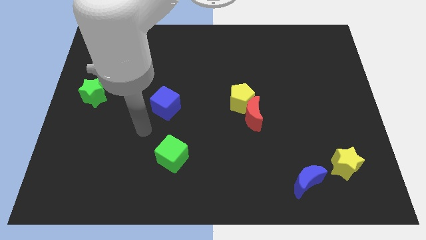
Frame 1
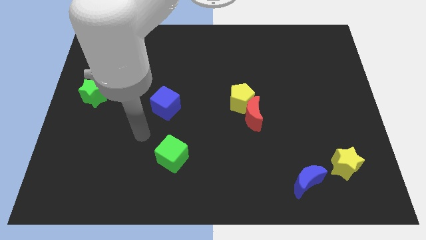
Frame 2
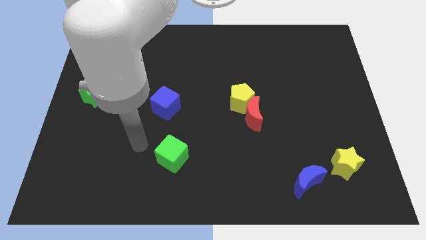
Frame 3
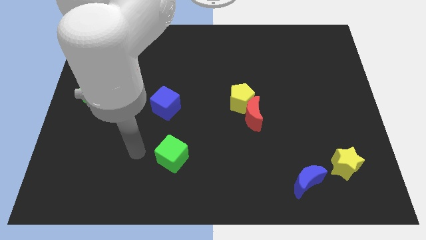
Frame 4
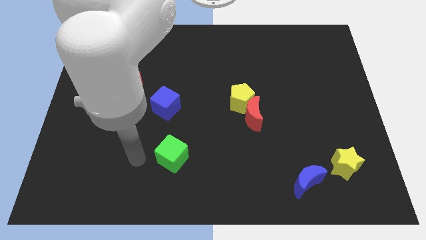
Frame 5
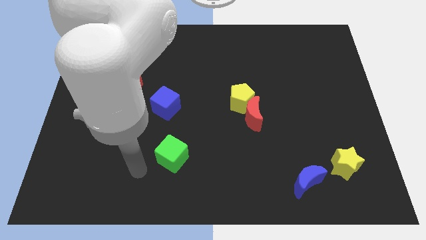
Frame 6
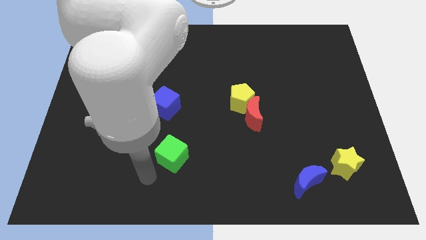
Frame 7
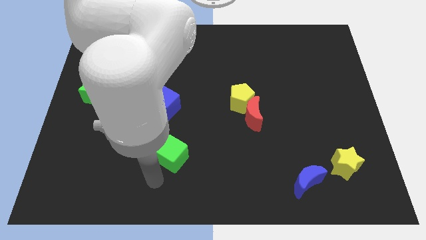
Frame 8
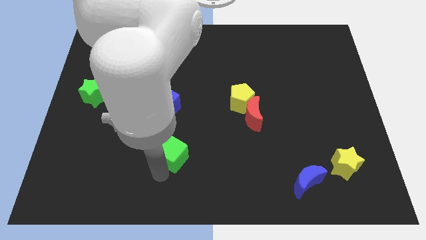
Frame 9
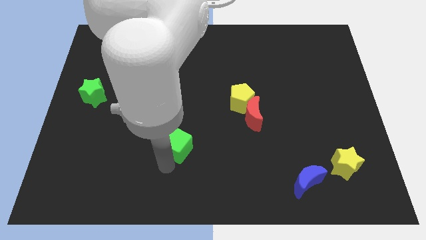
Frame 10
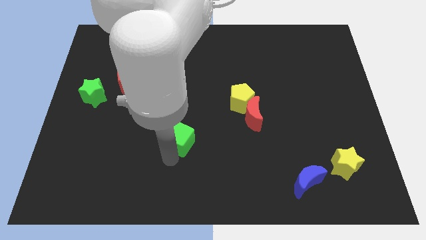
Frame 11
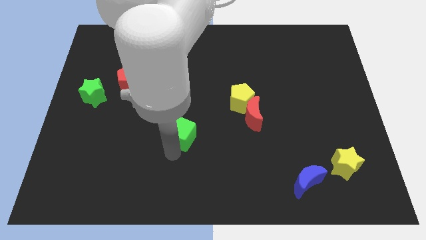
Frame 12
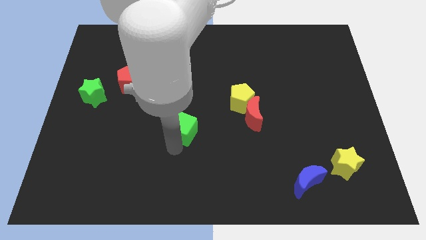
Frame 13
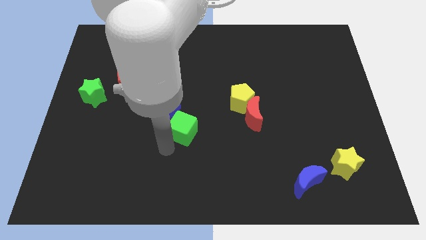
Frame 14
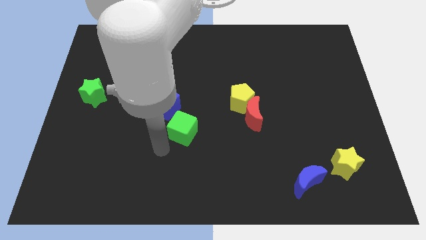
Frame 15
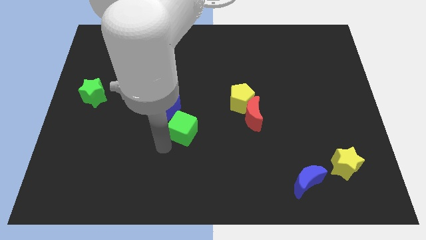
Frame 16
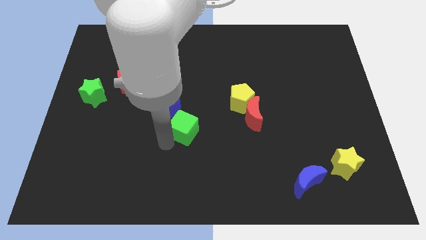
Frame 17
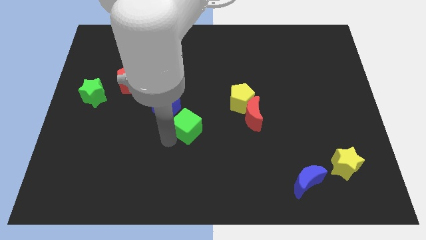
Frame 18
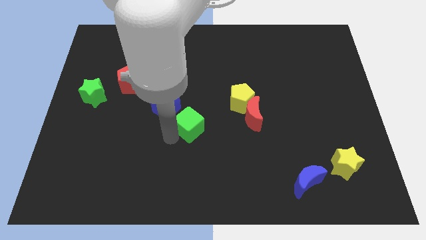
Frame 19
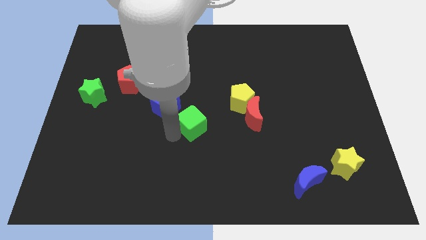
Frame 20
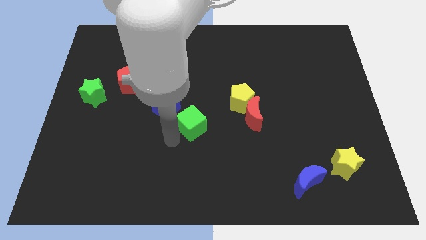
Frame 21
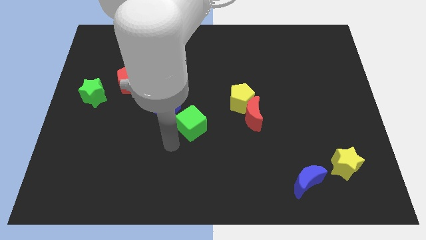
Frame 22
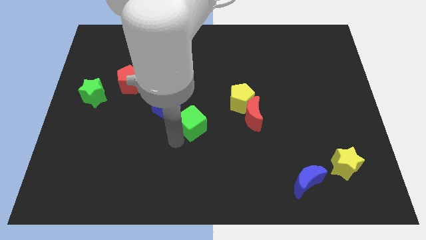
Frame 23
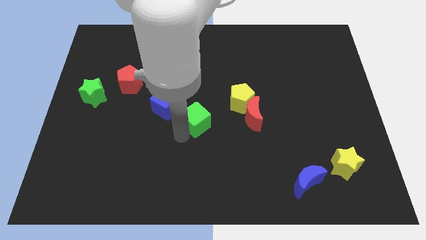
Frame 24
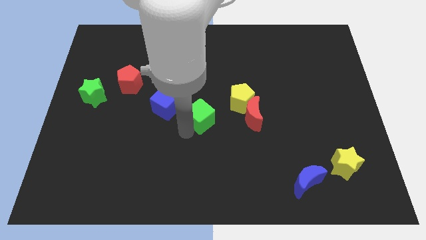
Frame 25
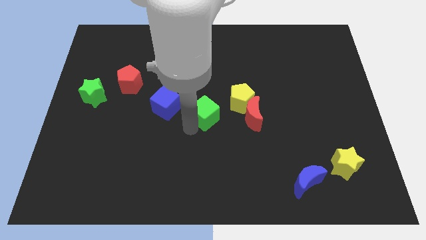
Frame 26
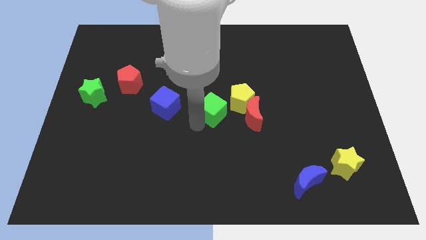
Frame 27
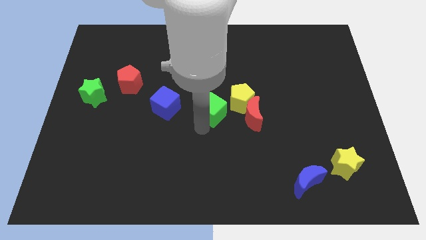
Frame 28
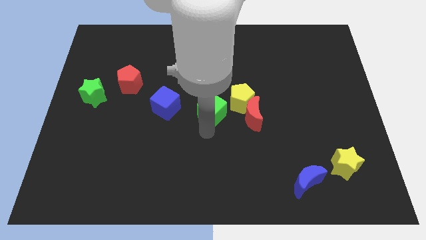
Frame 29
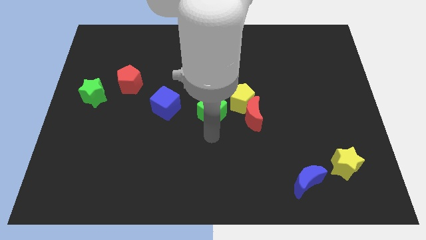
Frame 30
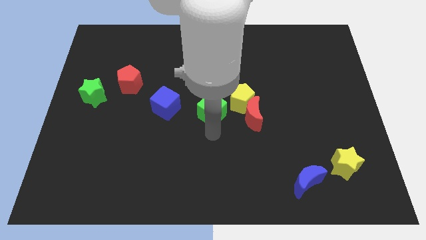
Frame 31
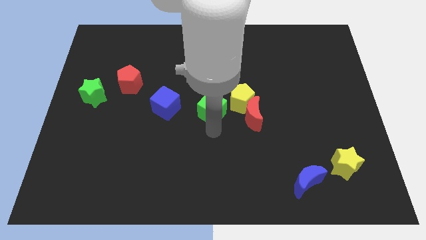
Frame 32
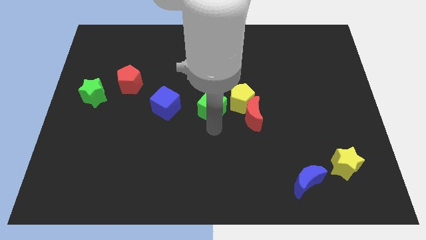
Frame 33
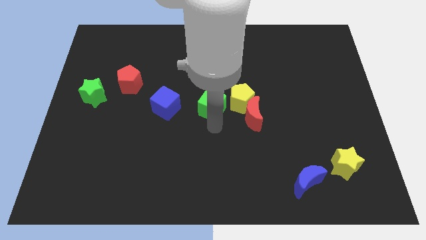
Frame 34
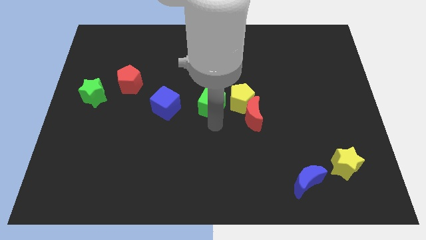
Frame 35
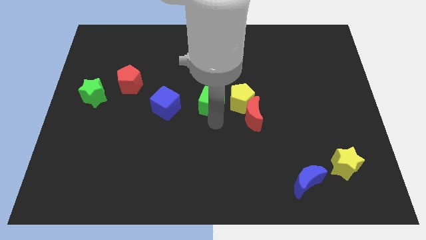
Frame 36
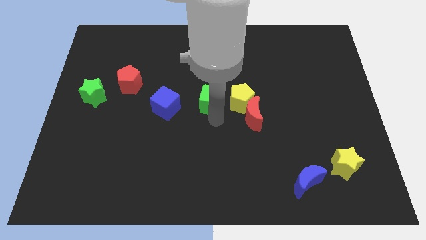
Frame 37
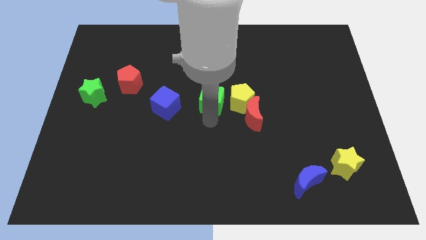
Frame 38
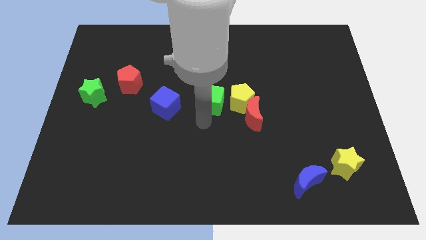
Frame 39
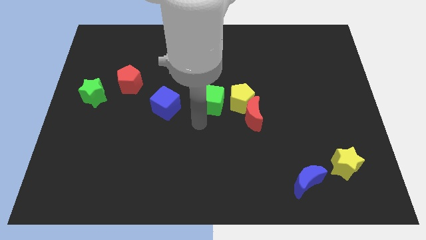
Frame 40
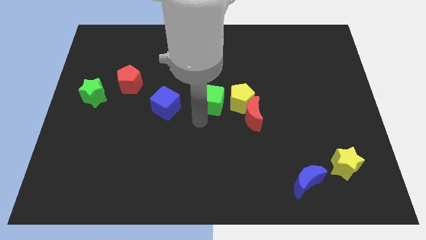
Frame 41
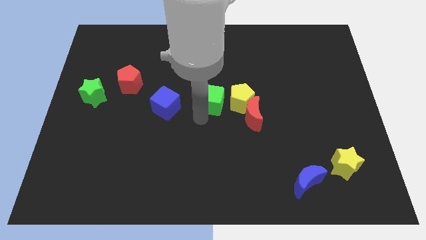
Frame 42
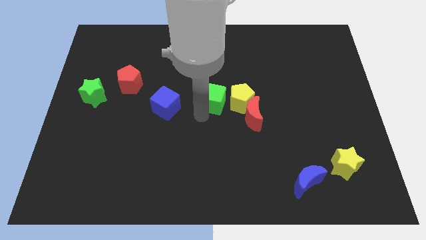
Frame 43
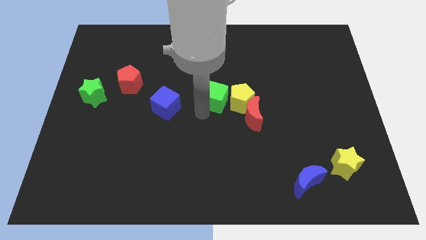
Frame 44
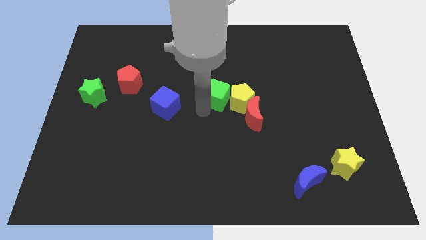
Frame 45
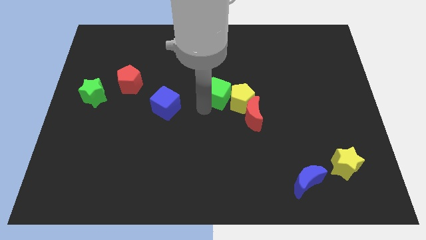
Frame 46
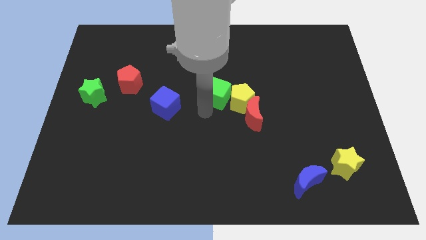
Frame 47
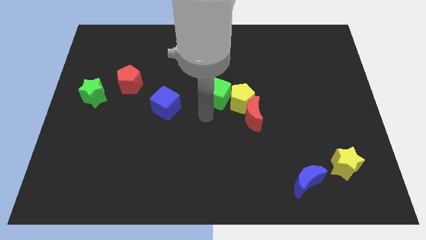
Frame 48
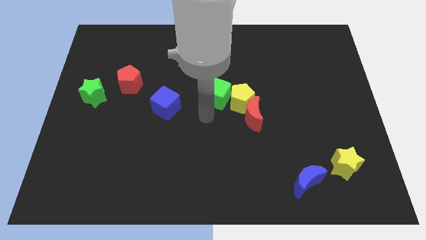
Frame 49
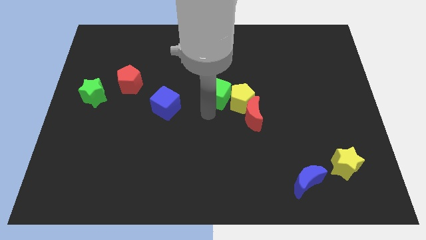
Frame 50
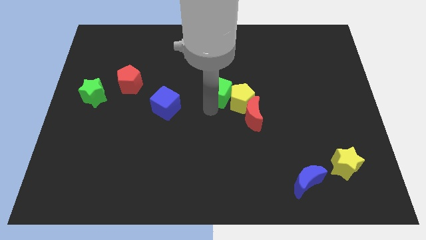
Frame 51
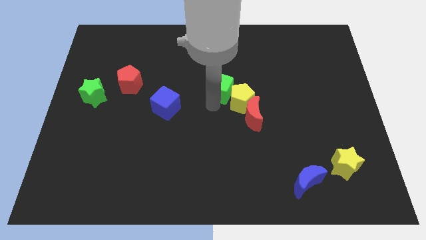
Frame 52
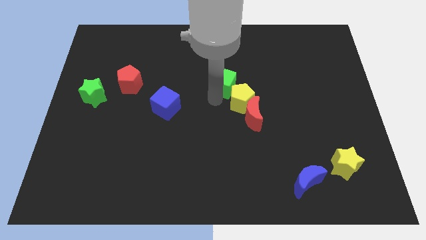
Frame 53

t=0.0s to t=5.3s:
move the green cube up and right

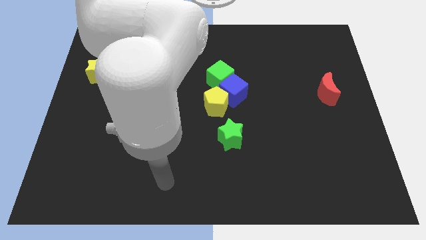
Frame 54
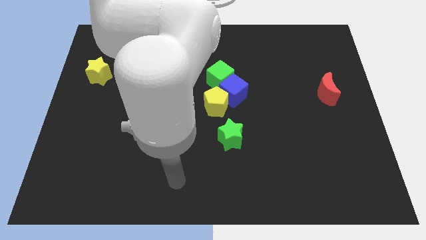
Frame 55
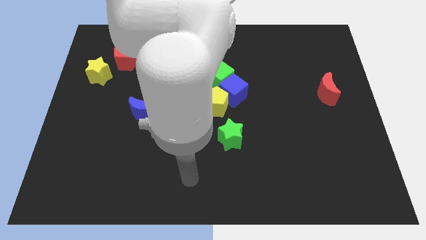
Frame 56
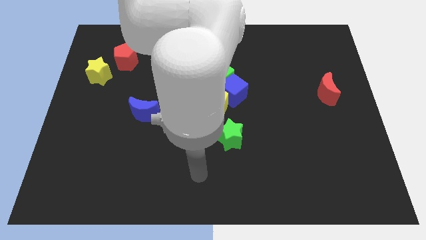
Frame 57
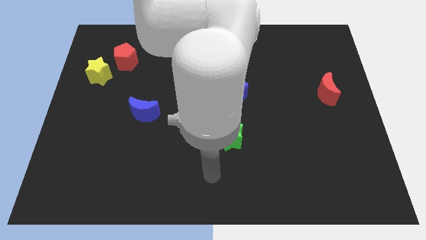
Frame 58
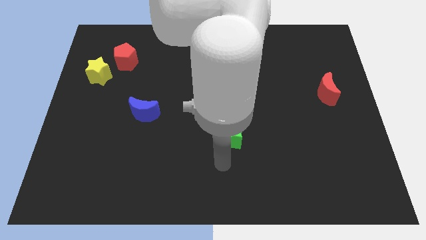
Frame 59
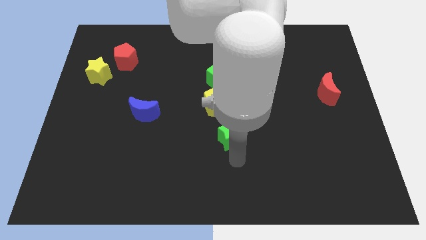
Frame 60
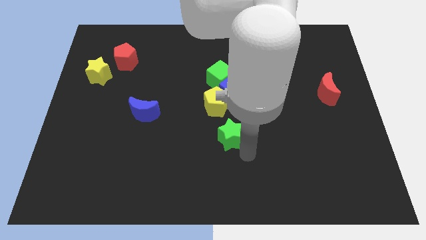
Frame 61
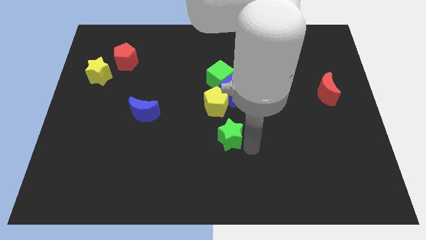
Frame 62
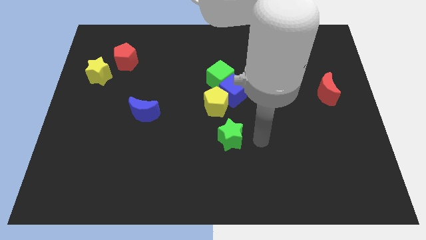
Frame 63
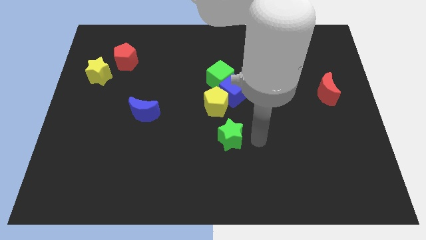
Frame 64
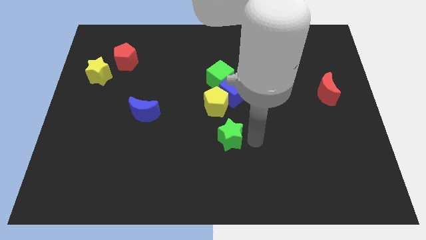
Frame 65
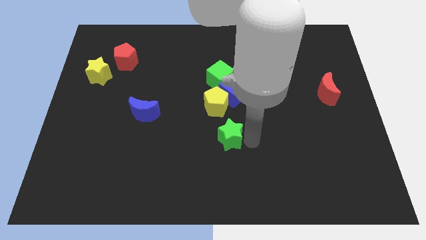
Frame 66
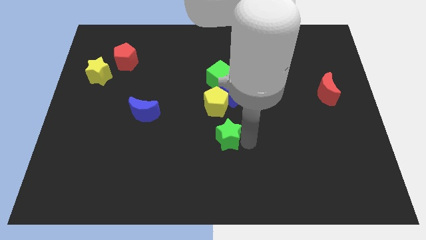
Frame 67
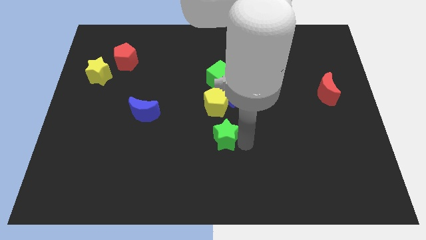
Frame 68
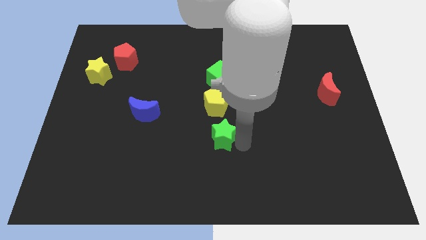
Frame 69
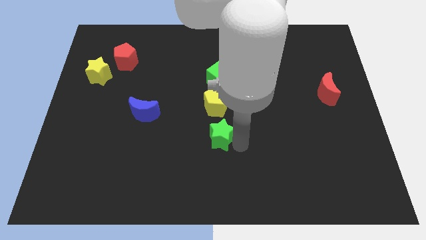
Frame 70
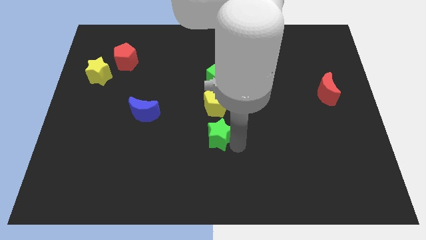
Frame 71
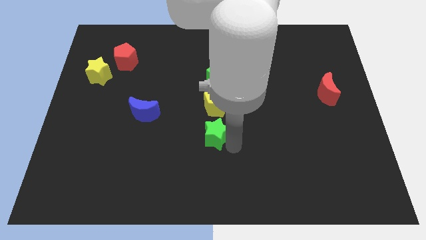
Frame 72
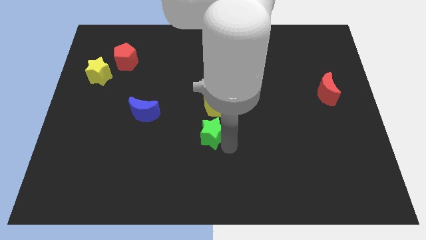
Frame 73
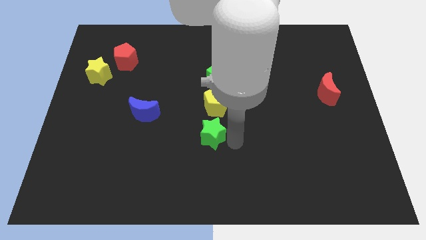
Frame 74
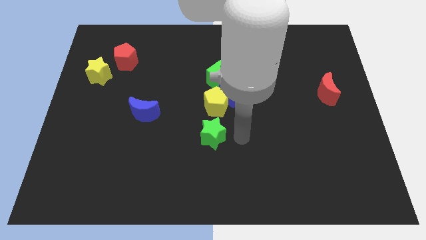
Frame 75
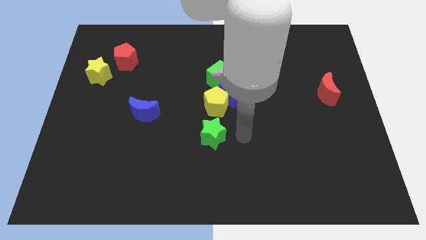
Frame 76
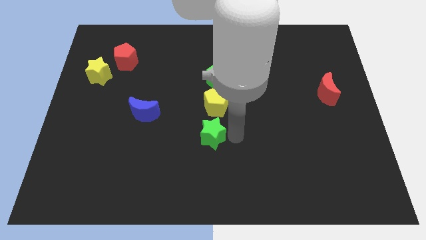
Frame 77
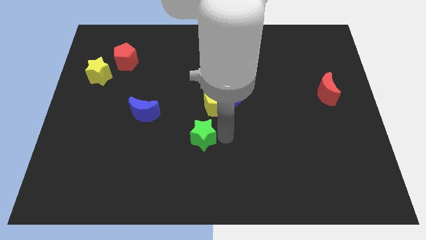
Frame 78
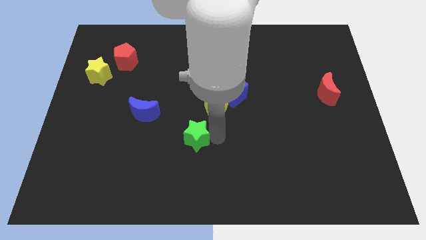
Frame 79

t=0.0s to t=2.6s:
push the green star a little left
